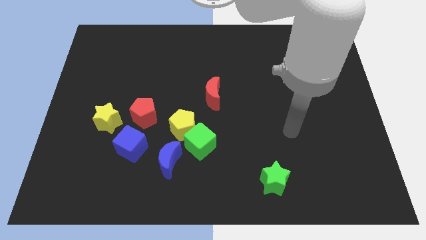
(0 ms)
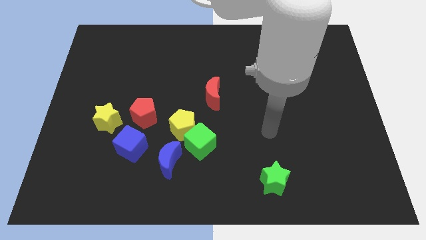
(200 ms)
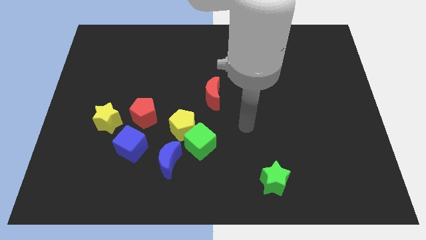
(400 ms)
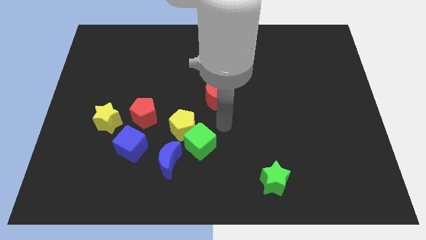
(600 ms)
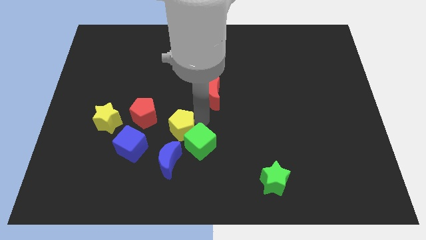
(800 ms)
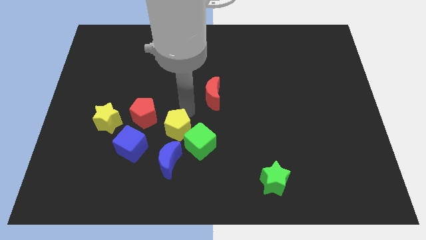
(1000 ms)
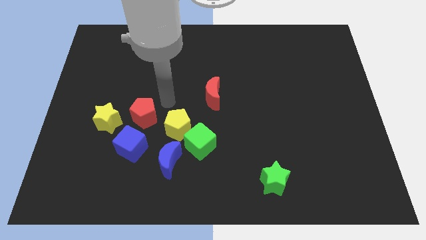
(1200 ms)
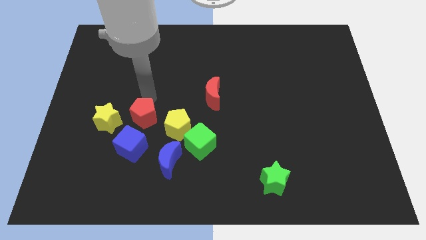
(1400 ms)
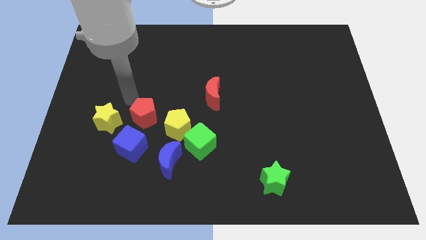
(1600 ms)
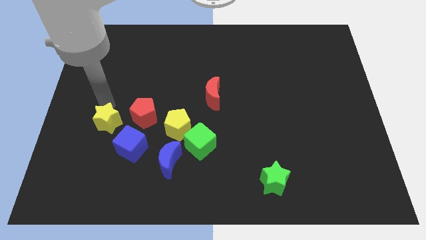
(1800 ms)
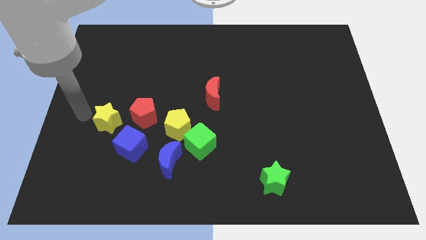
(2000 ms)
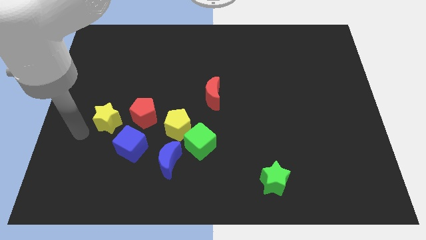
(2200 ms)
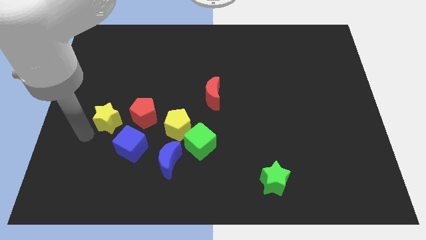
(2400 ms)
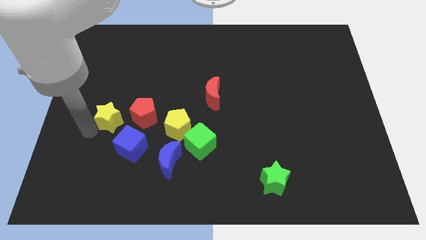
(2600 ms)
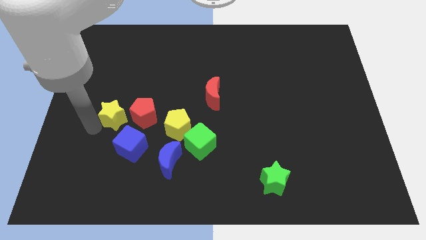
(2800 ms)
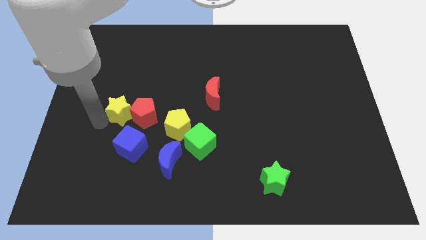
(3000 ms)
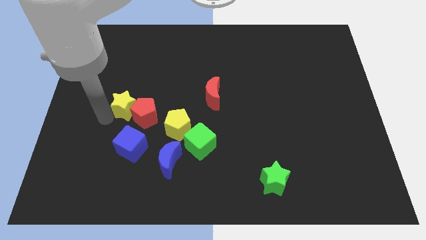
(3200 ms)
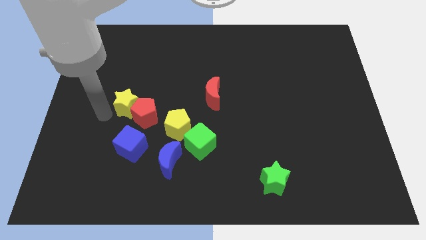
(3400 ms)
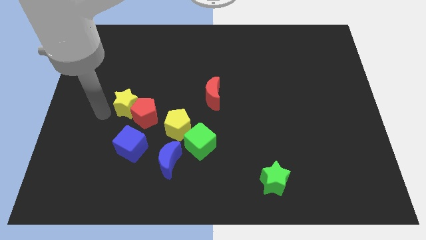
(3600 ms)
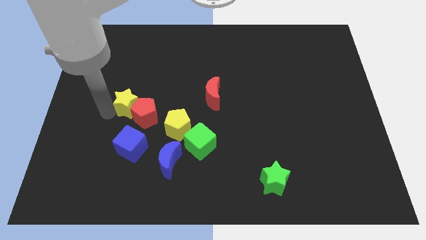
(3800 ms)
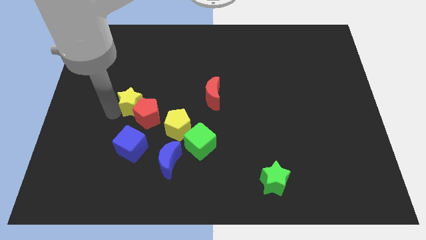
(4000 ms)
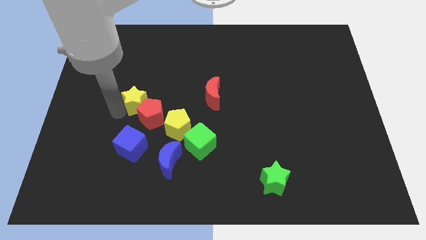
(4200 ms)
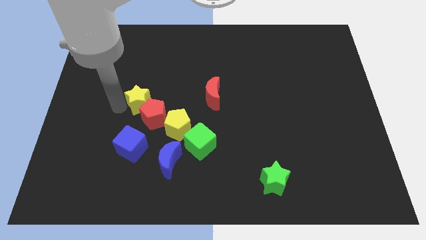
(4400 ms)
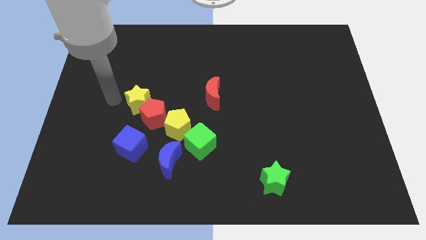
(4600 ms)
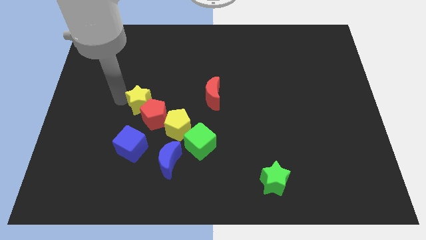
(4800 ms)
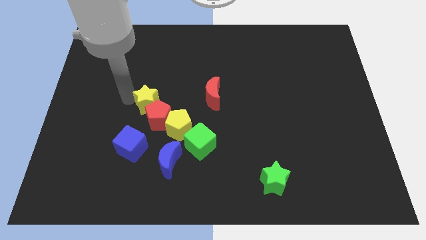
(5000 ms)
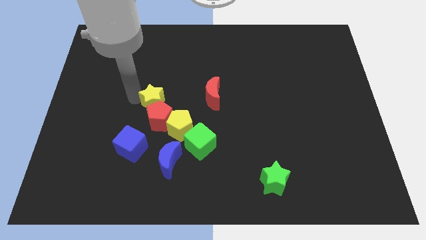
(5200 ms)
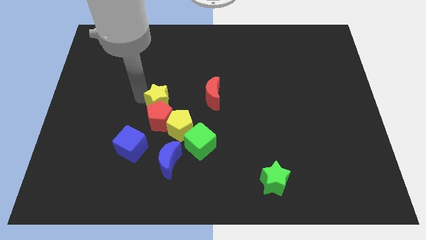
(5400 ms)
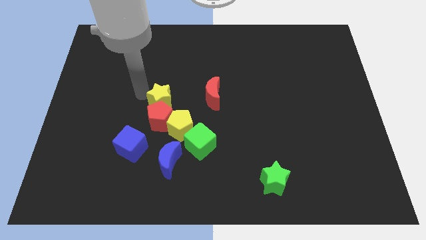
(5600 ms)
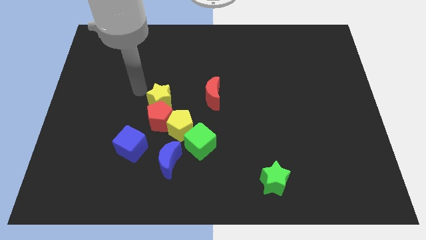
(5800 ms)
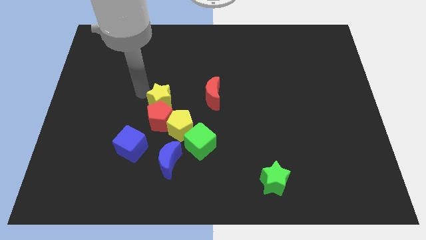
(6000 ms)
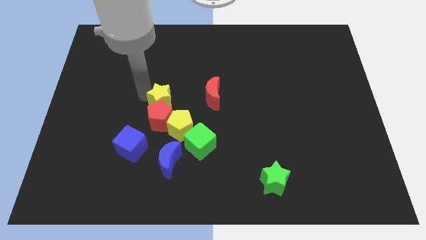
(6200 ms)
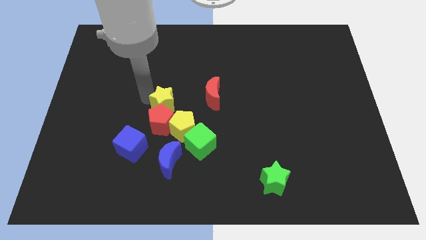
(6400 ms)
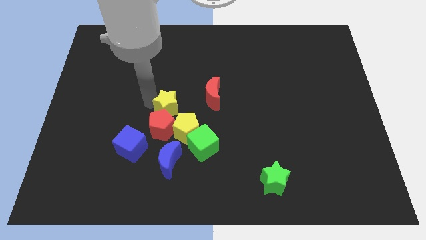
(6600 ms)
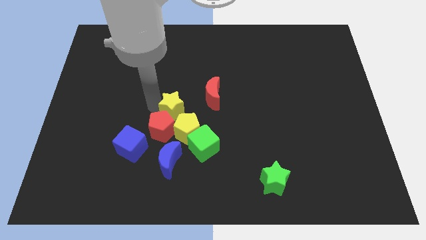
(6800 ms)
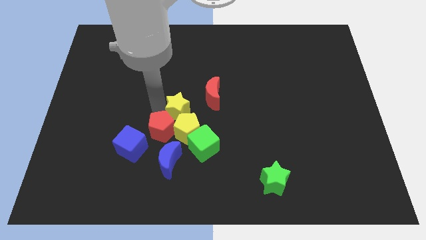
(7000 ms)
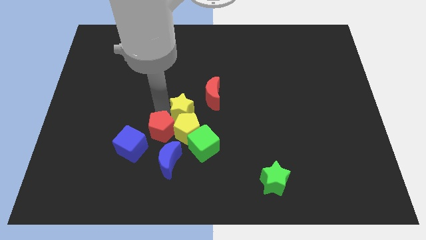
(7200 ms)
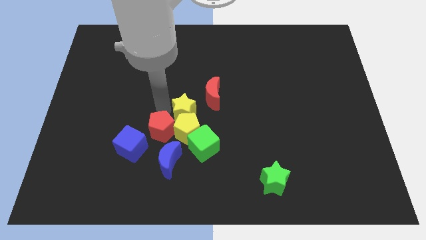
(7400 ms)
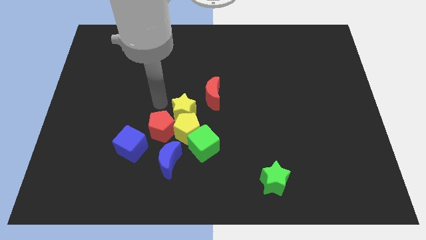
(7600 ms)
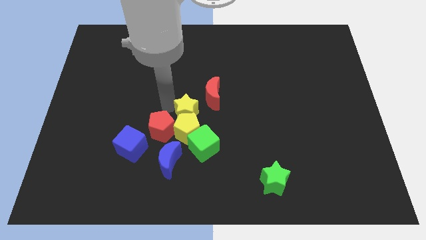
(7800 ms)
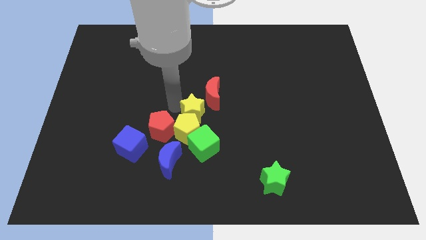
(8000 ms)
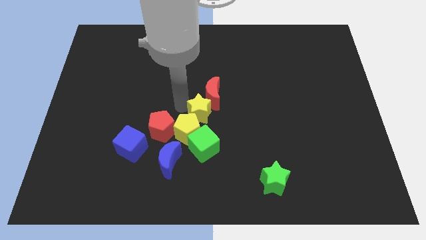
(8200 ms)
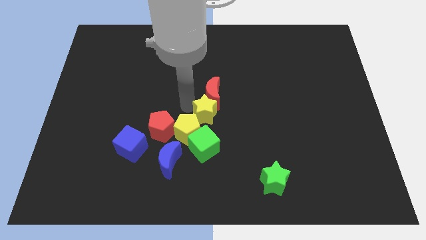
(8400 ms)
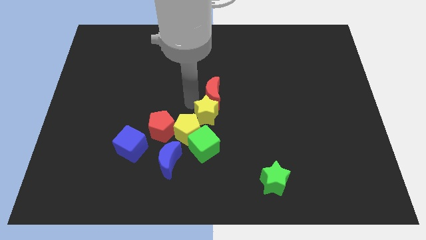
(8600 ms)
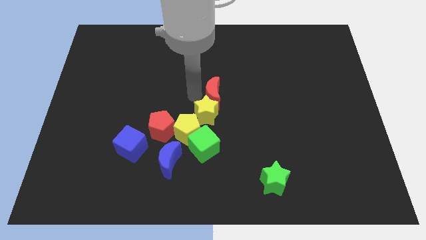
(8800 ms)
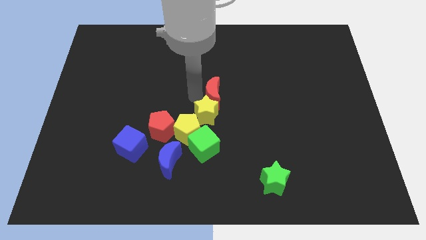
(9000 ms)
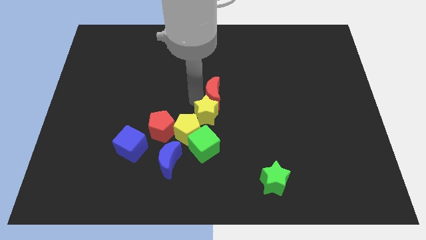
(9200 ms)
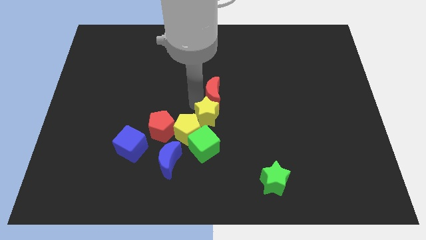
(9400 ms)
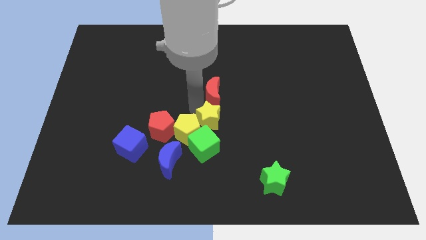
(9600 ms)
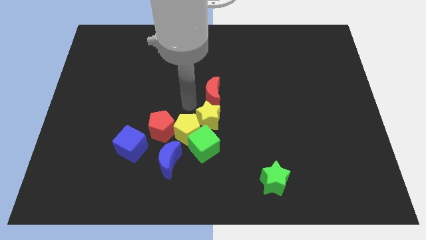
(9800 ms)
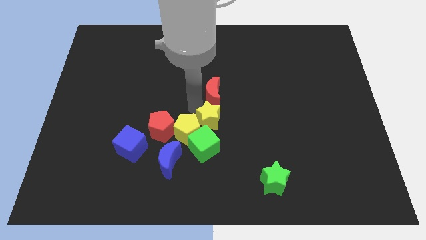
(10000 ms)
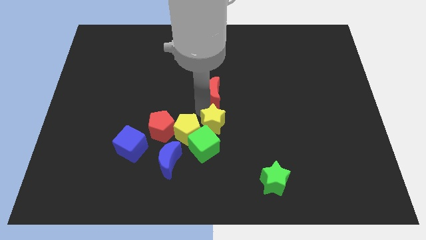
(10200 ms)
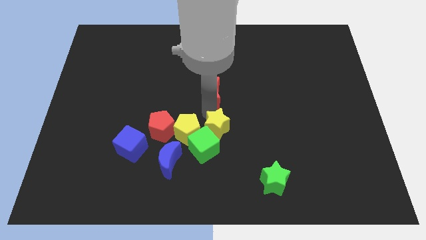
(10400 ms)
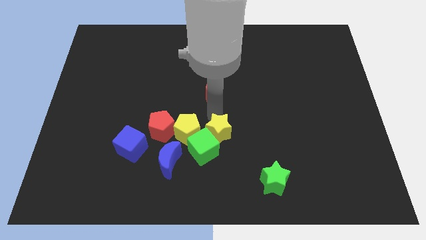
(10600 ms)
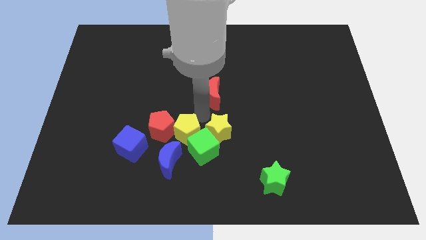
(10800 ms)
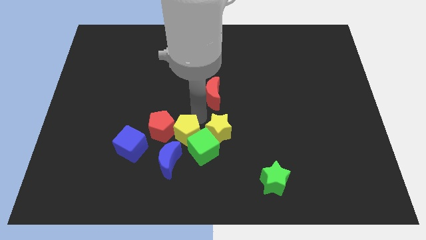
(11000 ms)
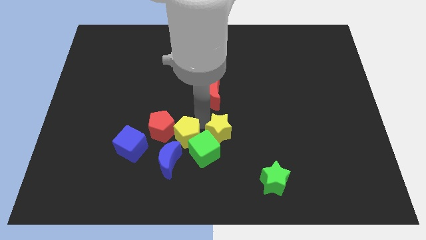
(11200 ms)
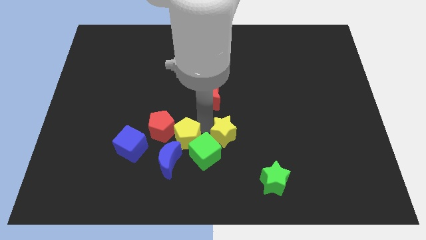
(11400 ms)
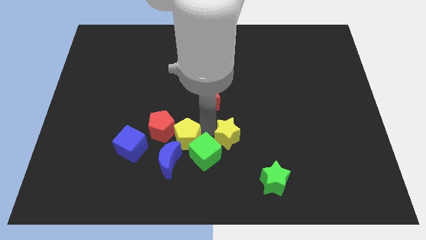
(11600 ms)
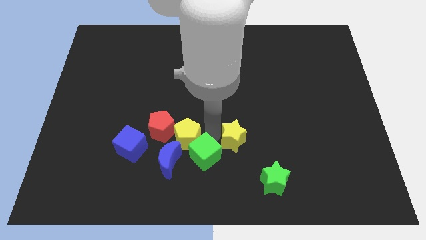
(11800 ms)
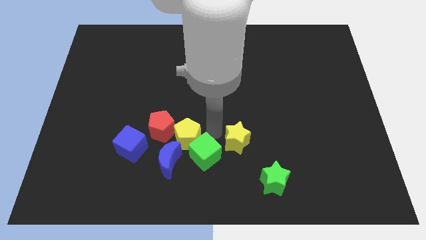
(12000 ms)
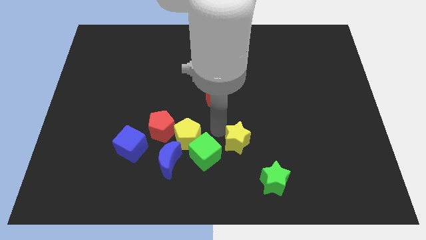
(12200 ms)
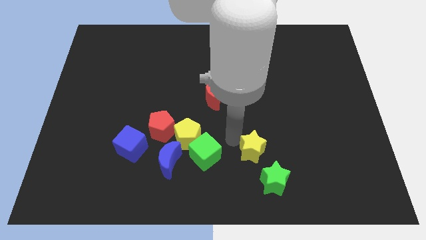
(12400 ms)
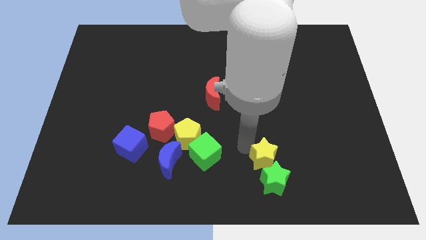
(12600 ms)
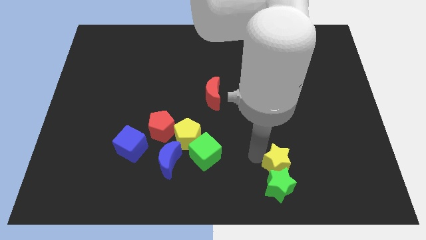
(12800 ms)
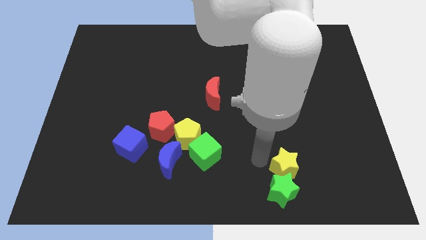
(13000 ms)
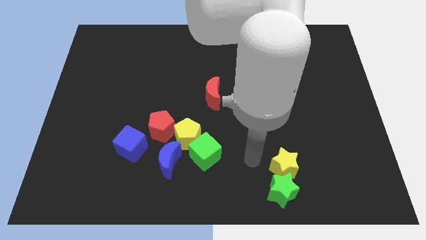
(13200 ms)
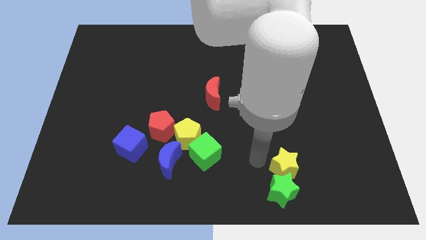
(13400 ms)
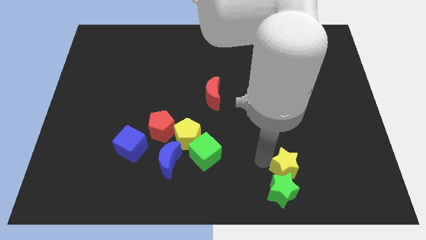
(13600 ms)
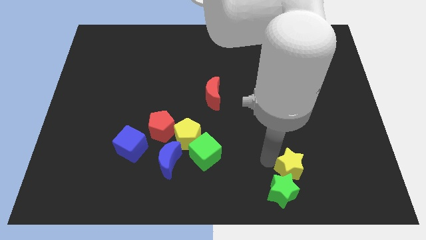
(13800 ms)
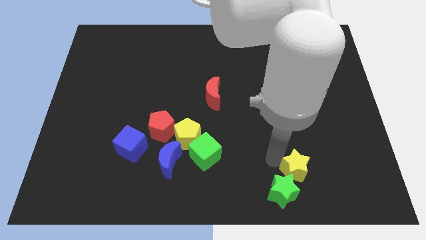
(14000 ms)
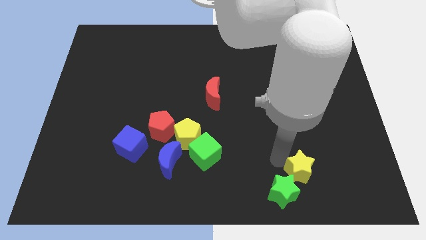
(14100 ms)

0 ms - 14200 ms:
slide the yellow star to the right of the green star
